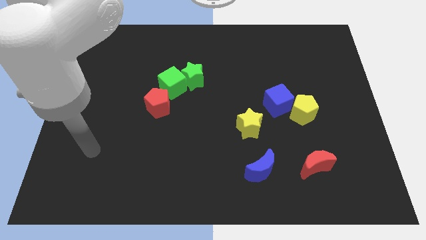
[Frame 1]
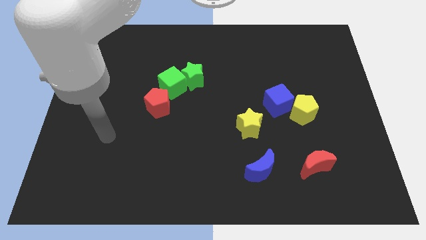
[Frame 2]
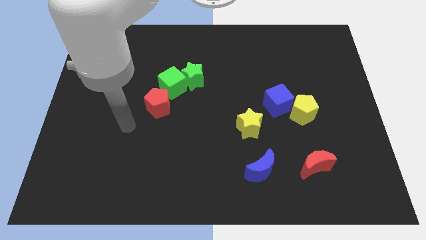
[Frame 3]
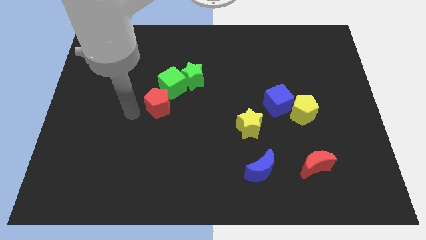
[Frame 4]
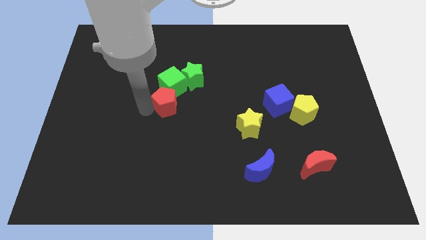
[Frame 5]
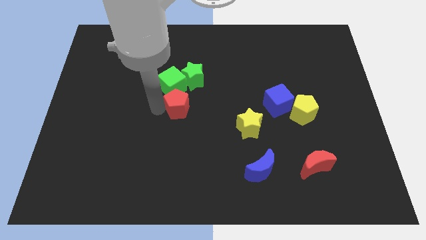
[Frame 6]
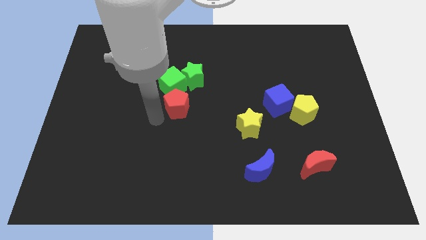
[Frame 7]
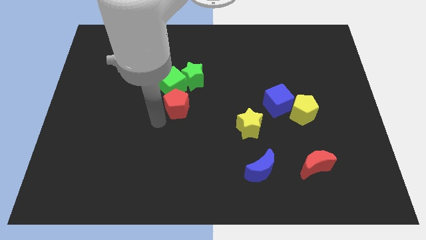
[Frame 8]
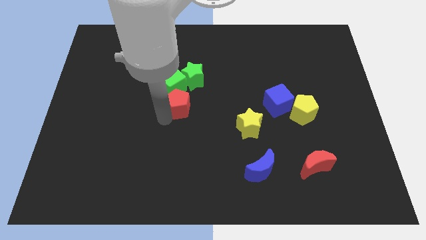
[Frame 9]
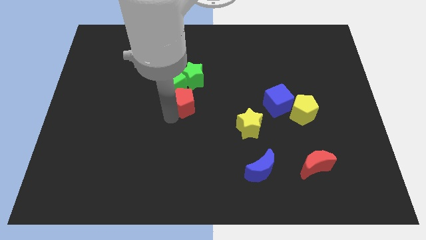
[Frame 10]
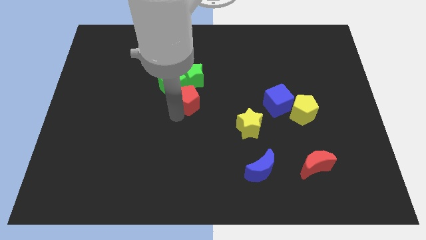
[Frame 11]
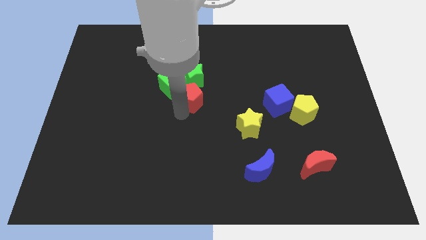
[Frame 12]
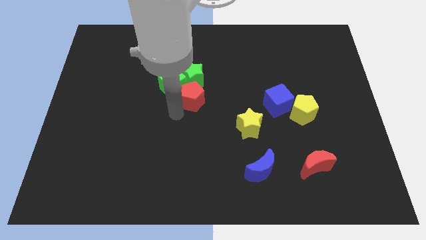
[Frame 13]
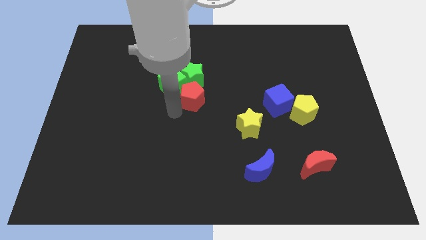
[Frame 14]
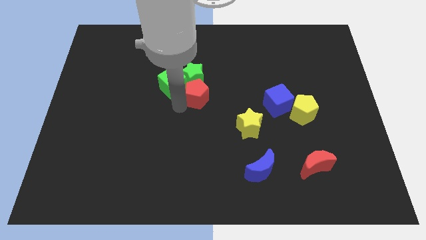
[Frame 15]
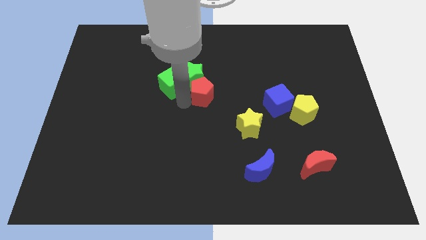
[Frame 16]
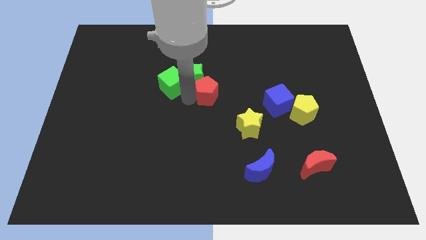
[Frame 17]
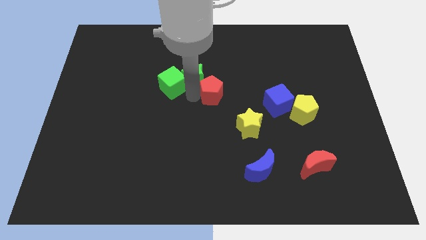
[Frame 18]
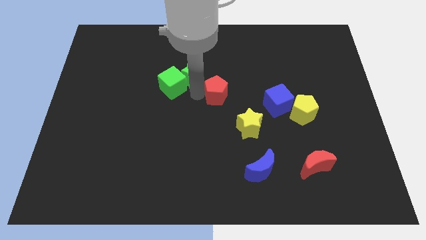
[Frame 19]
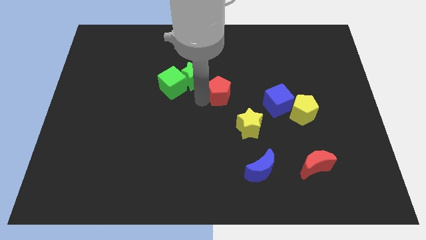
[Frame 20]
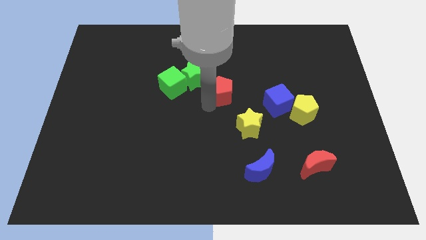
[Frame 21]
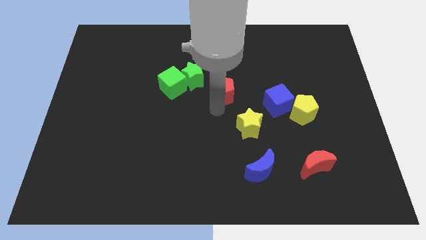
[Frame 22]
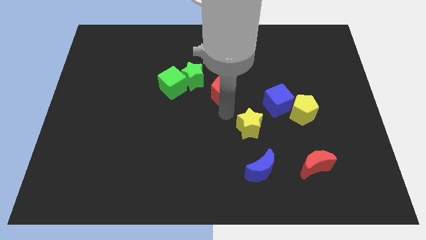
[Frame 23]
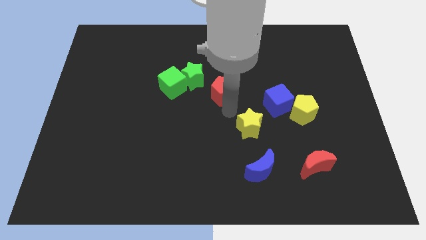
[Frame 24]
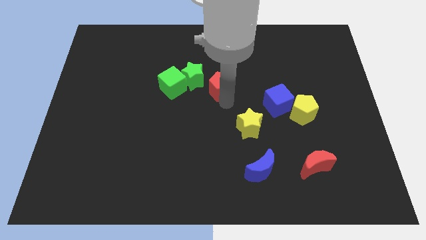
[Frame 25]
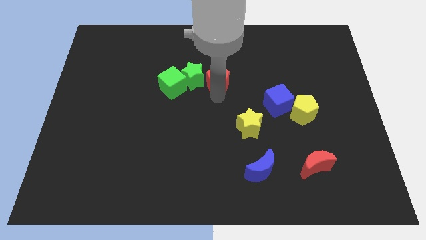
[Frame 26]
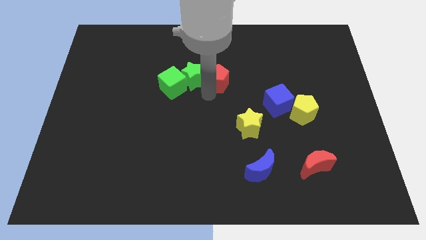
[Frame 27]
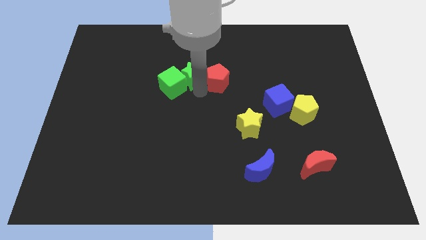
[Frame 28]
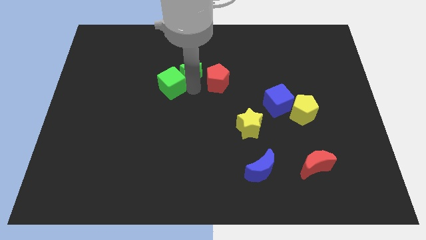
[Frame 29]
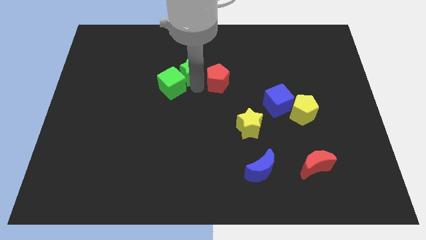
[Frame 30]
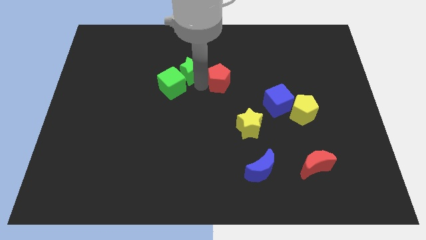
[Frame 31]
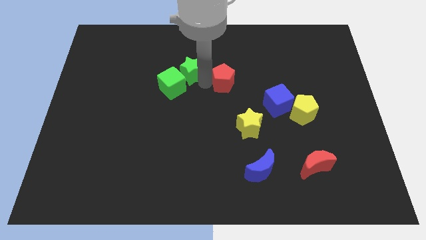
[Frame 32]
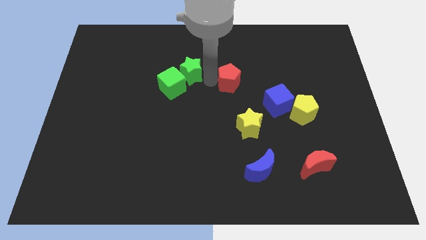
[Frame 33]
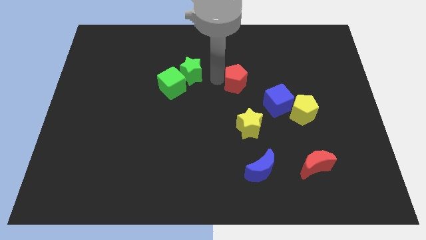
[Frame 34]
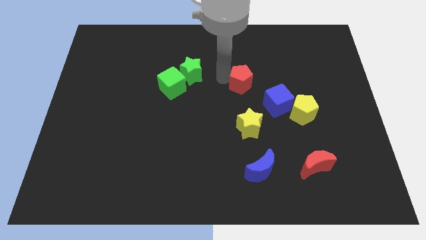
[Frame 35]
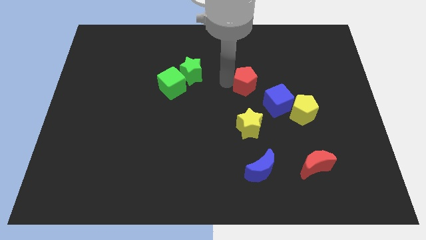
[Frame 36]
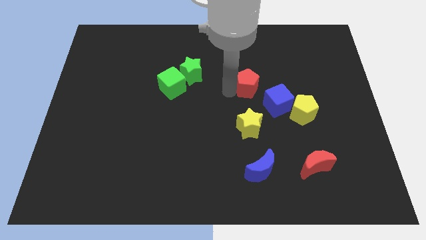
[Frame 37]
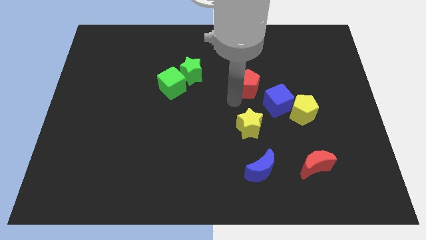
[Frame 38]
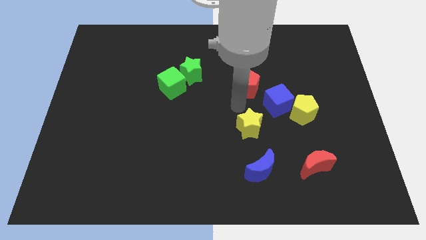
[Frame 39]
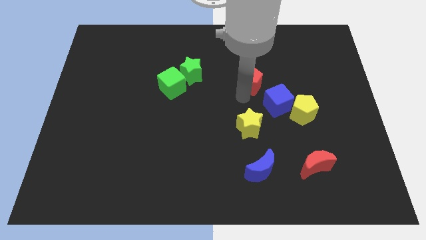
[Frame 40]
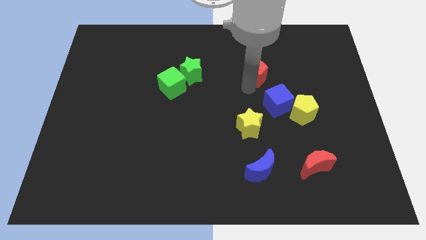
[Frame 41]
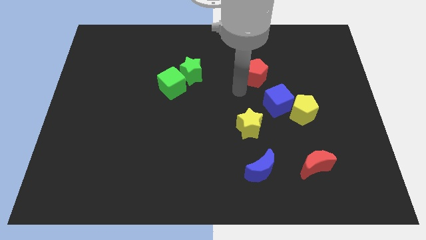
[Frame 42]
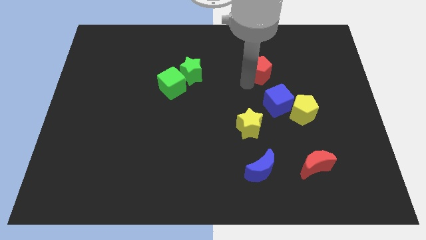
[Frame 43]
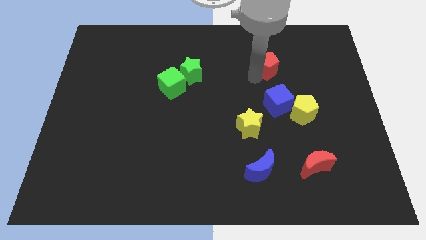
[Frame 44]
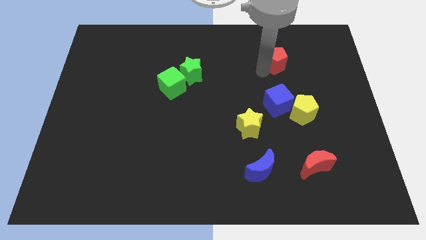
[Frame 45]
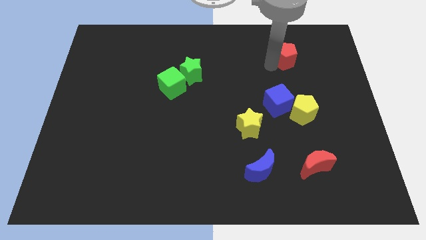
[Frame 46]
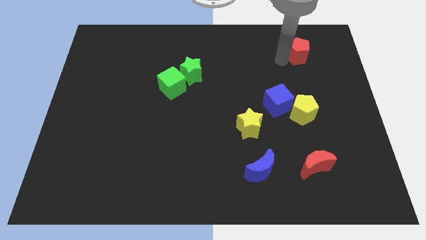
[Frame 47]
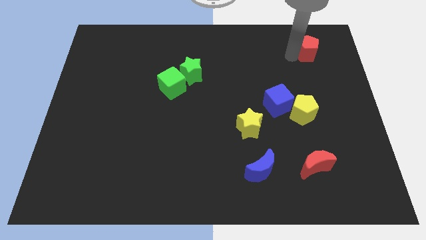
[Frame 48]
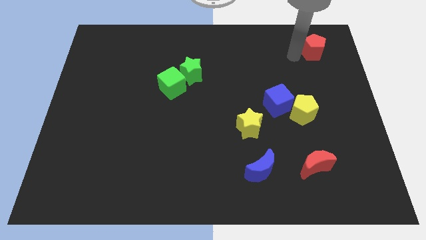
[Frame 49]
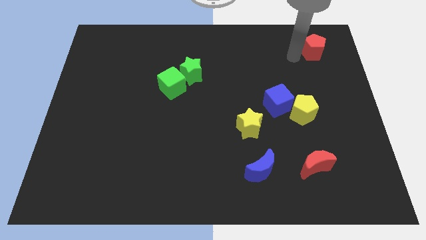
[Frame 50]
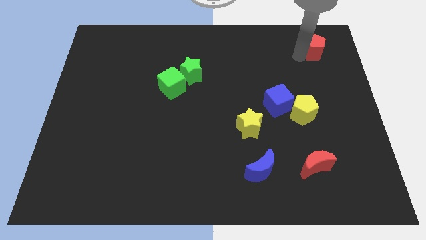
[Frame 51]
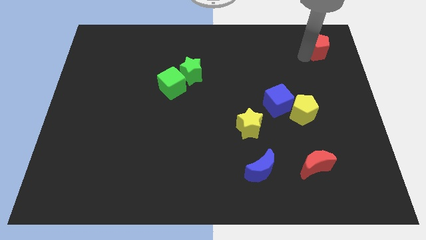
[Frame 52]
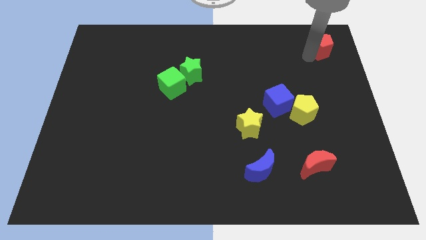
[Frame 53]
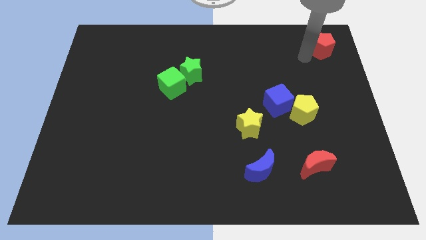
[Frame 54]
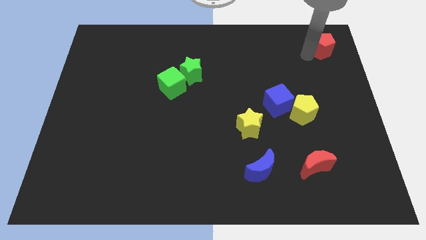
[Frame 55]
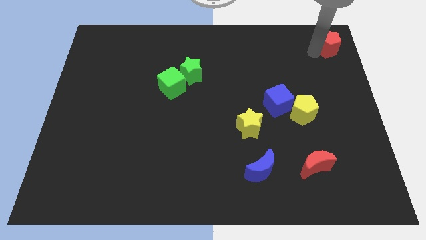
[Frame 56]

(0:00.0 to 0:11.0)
push the red pentagon to the top right of the board
